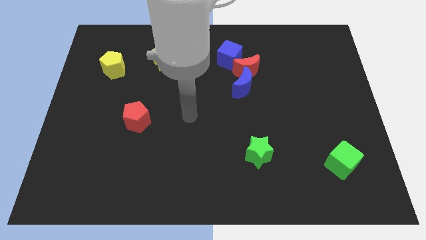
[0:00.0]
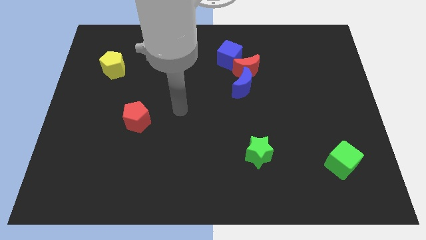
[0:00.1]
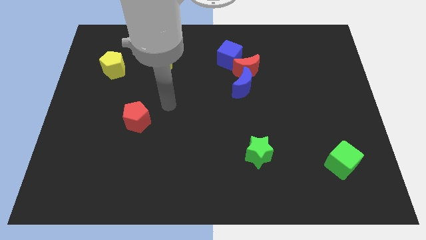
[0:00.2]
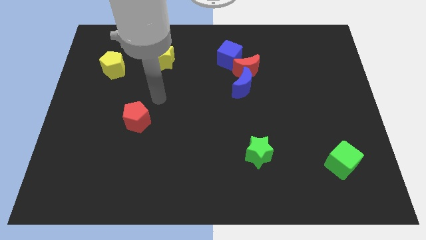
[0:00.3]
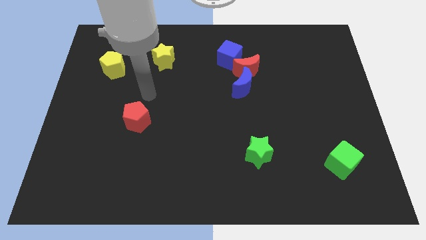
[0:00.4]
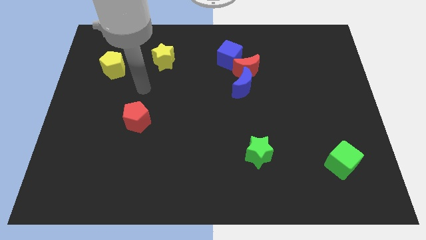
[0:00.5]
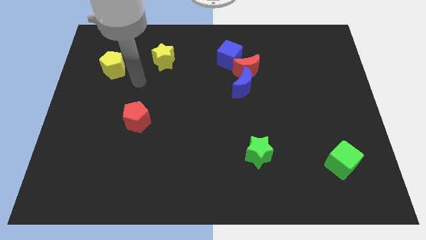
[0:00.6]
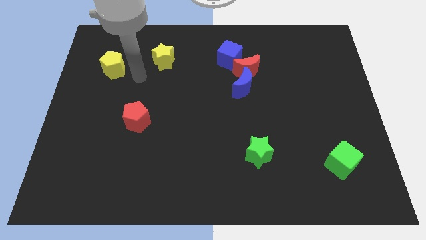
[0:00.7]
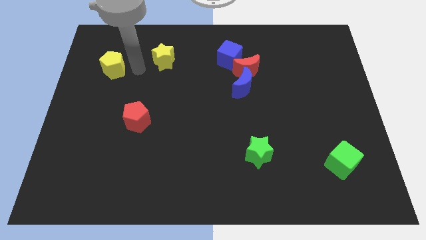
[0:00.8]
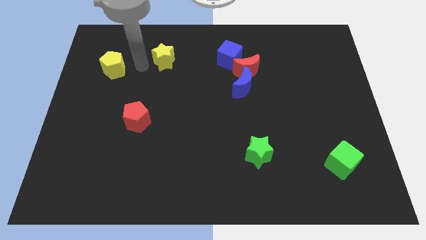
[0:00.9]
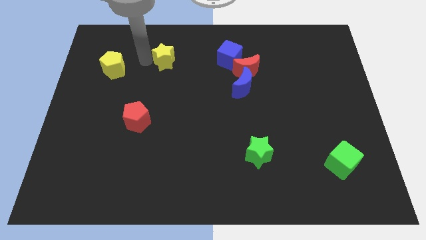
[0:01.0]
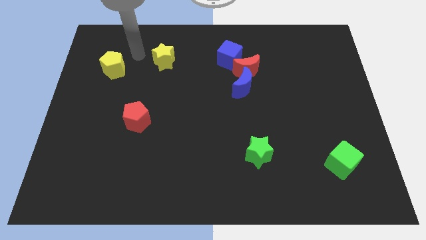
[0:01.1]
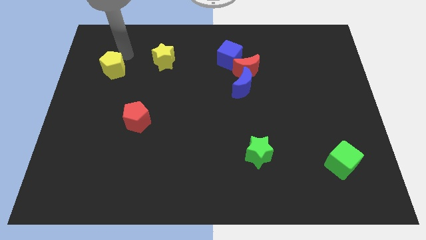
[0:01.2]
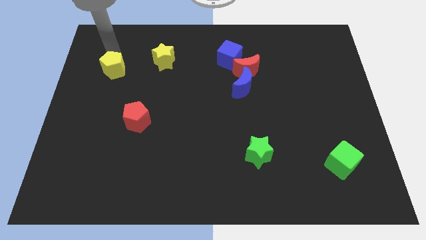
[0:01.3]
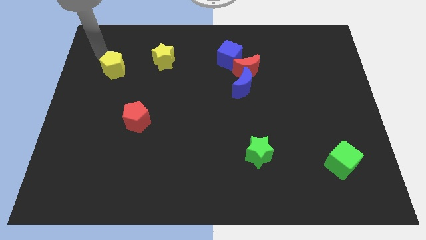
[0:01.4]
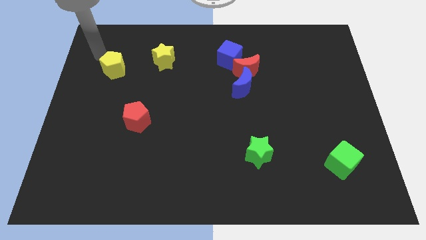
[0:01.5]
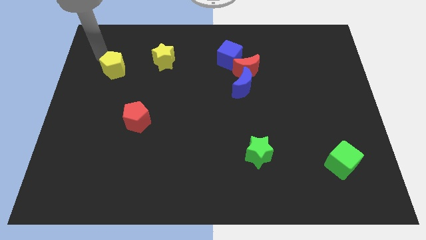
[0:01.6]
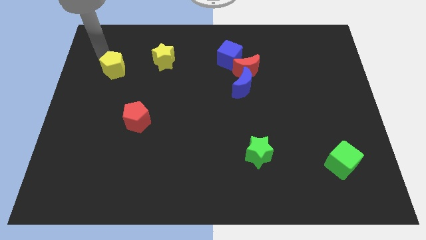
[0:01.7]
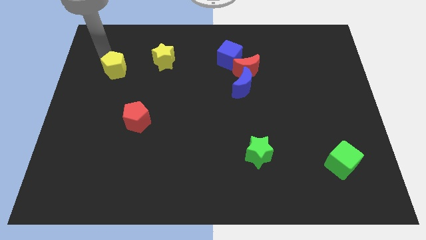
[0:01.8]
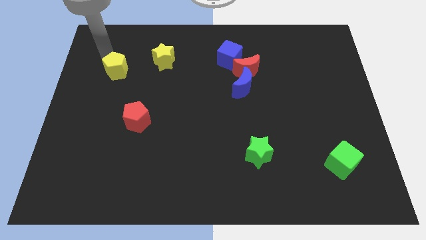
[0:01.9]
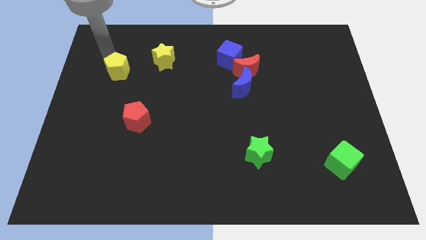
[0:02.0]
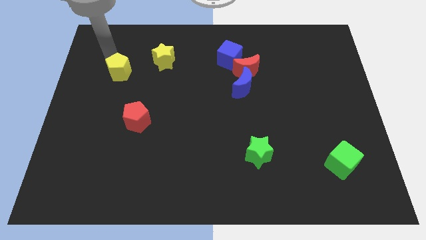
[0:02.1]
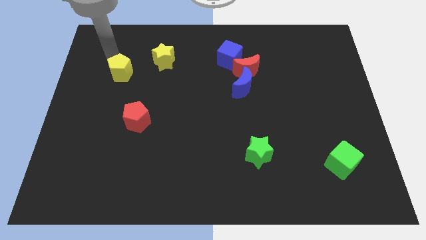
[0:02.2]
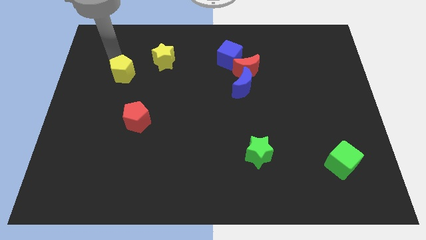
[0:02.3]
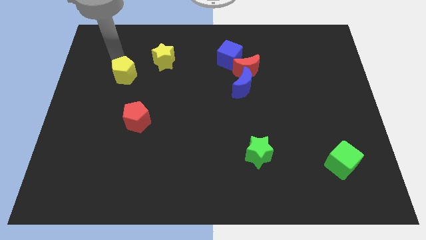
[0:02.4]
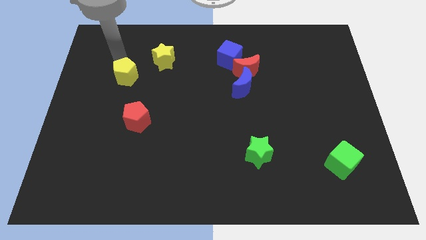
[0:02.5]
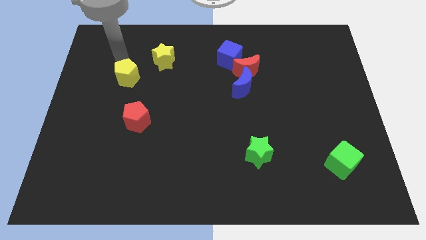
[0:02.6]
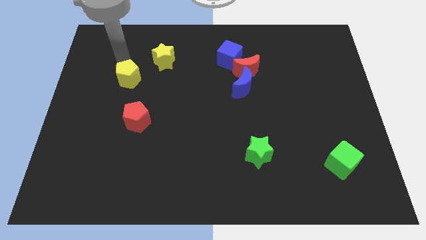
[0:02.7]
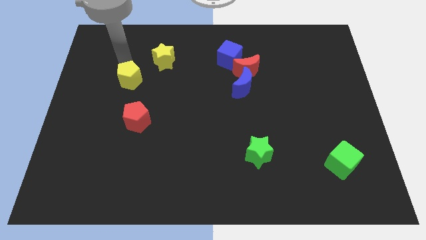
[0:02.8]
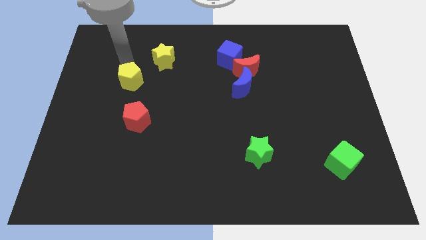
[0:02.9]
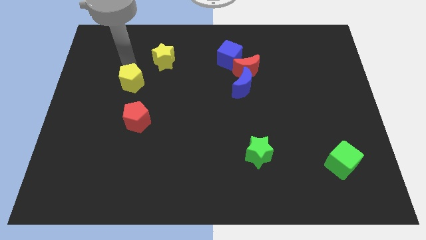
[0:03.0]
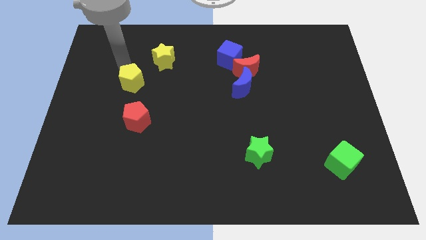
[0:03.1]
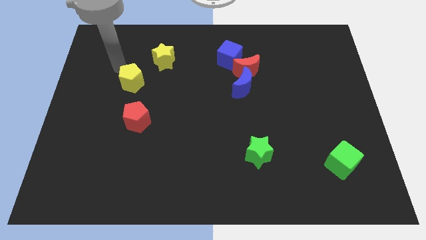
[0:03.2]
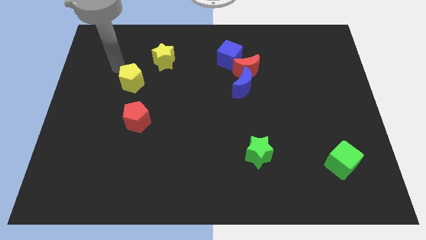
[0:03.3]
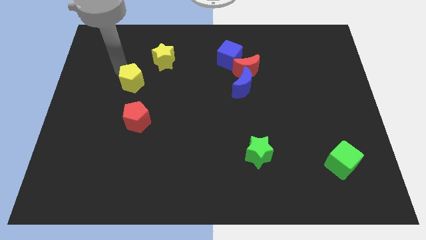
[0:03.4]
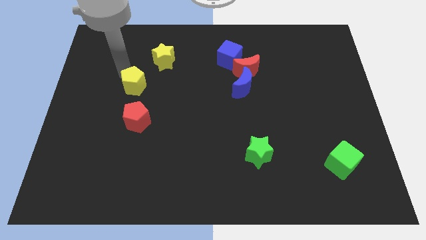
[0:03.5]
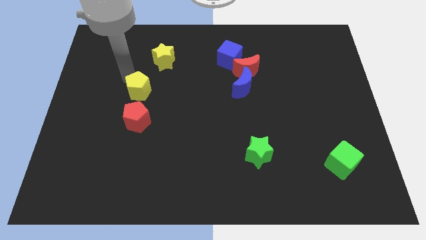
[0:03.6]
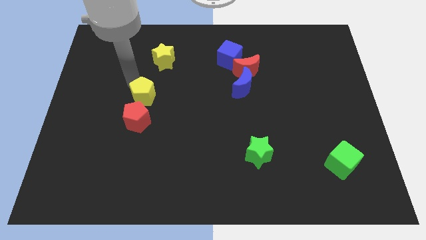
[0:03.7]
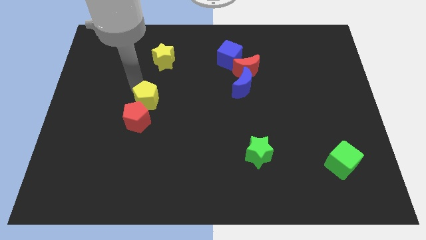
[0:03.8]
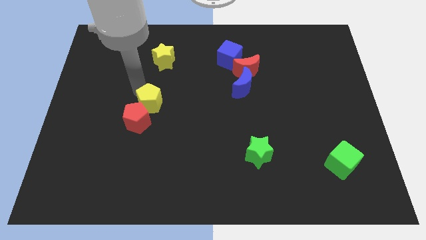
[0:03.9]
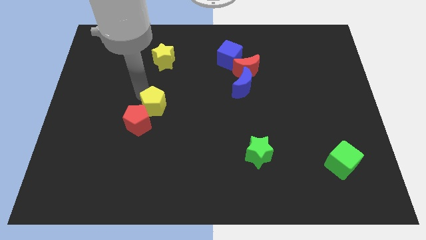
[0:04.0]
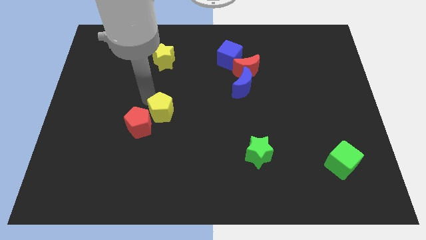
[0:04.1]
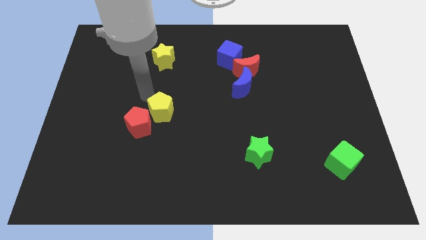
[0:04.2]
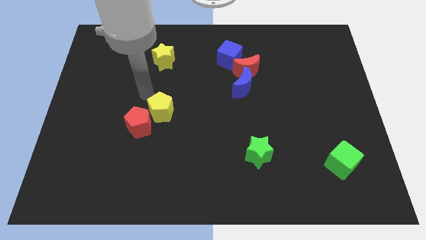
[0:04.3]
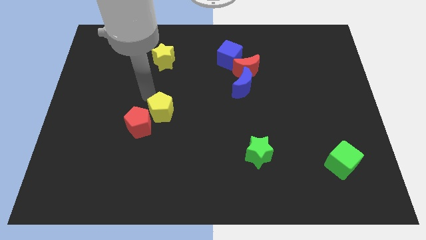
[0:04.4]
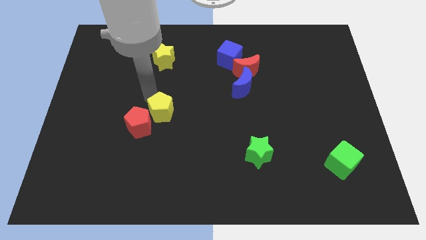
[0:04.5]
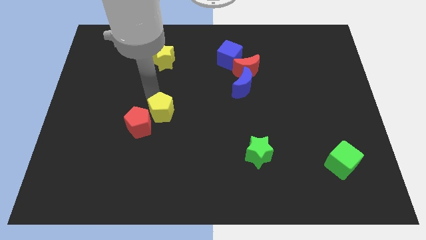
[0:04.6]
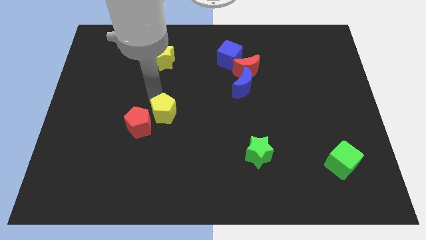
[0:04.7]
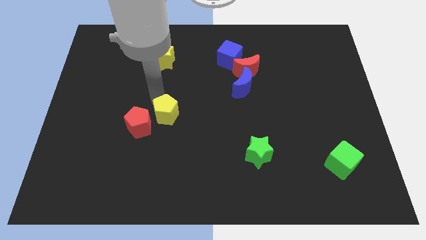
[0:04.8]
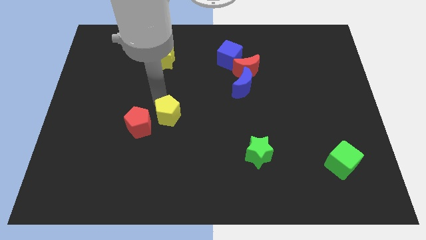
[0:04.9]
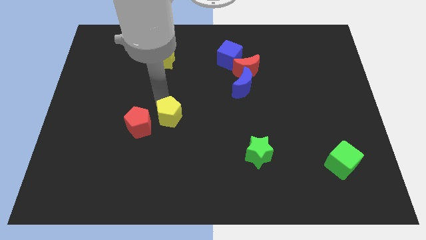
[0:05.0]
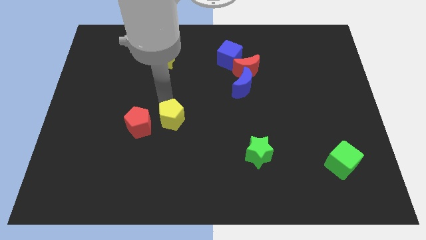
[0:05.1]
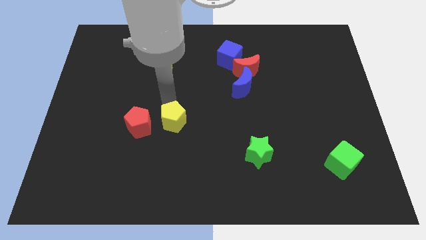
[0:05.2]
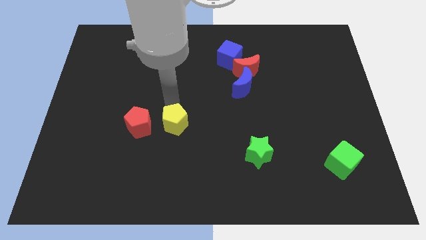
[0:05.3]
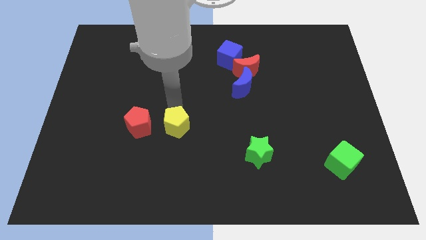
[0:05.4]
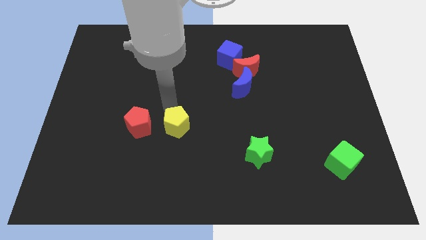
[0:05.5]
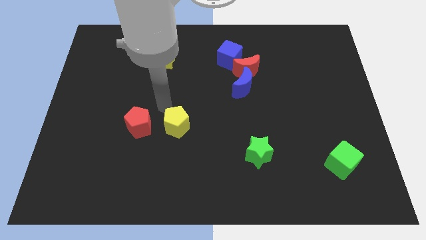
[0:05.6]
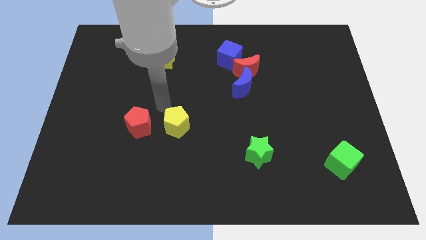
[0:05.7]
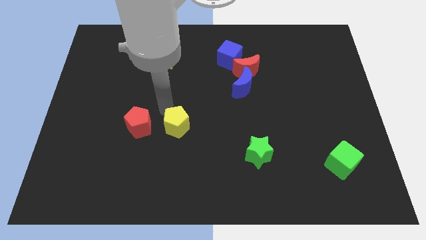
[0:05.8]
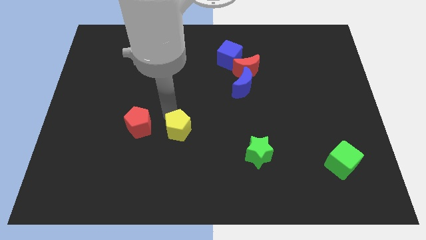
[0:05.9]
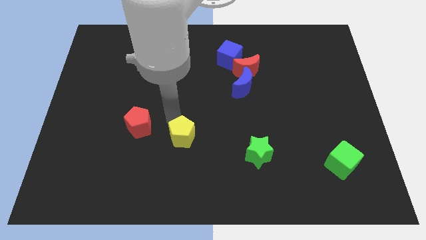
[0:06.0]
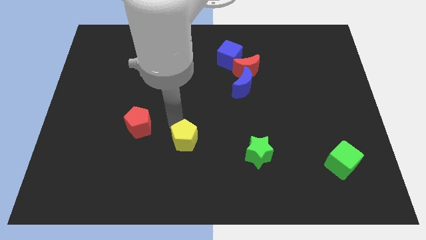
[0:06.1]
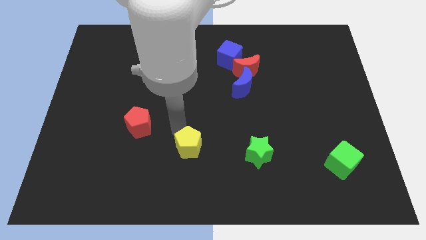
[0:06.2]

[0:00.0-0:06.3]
put the yellow pentagon to the left side of the green star

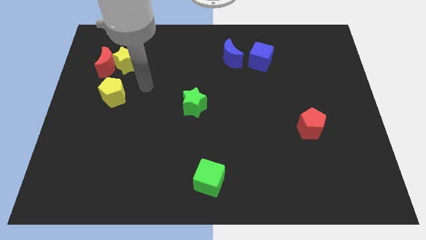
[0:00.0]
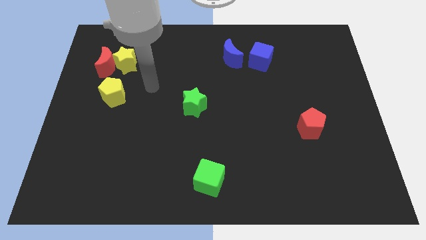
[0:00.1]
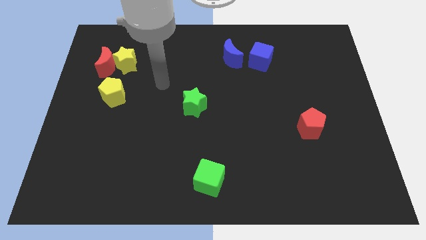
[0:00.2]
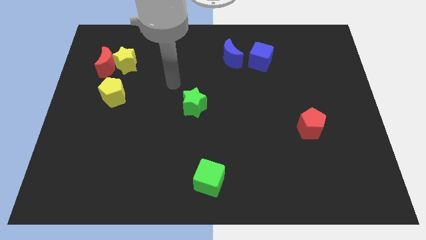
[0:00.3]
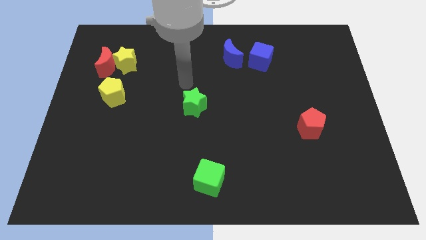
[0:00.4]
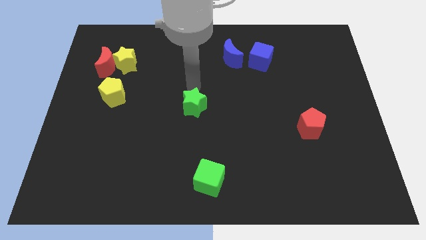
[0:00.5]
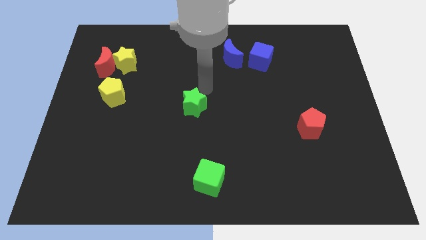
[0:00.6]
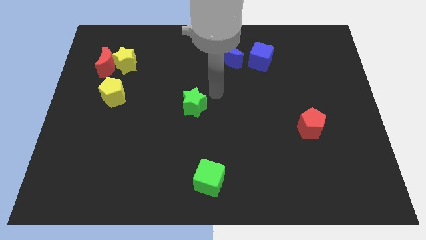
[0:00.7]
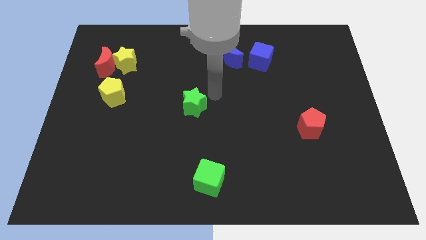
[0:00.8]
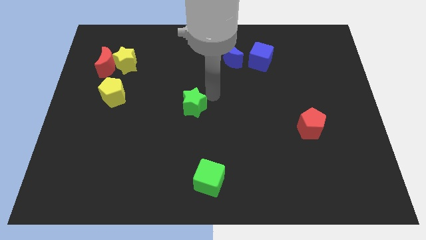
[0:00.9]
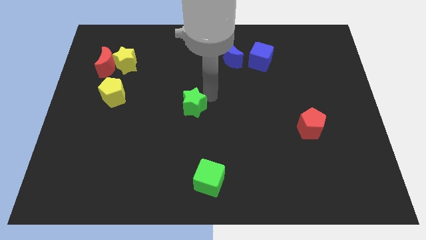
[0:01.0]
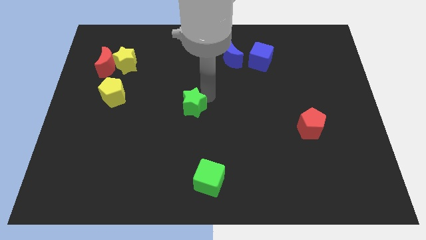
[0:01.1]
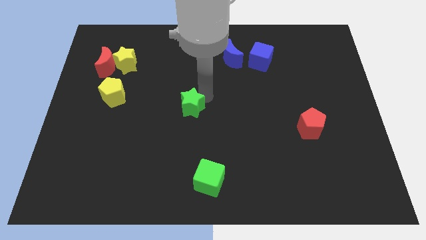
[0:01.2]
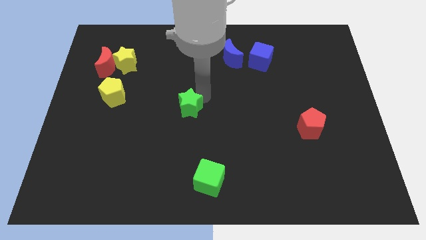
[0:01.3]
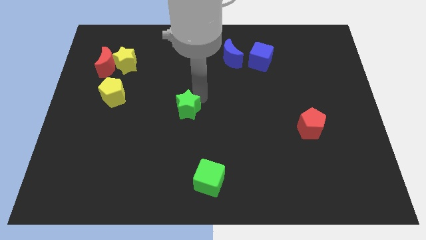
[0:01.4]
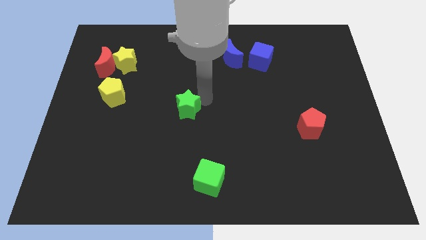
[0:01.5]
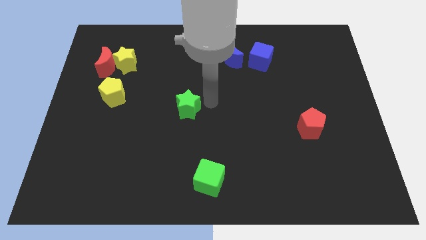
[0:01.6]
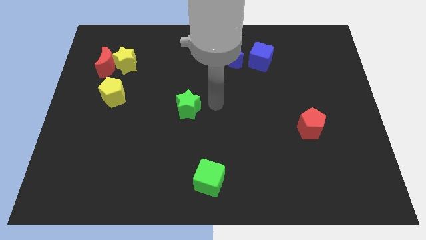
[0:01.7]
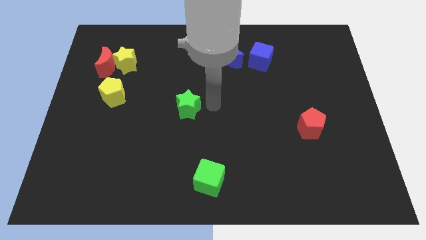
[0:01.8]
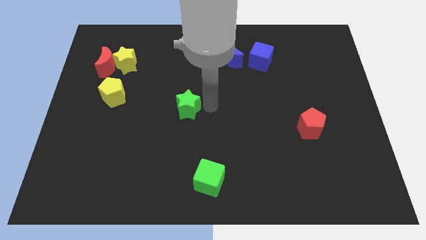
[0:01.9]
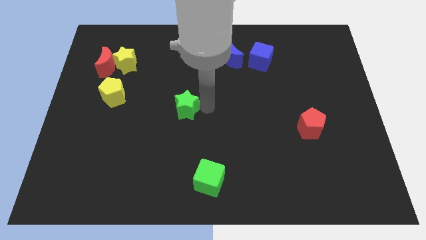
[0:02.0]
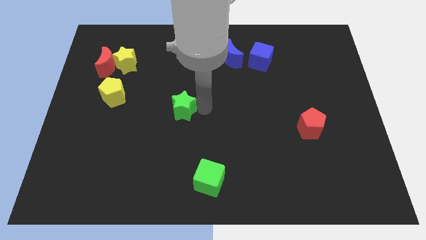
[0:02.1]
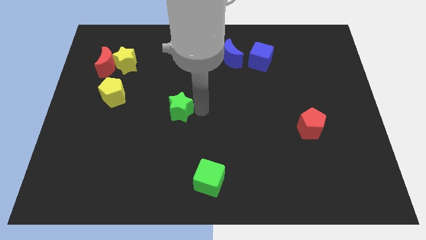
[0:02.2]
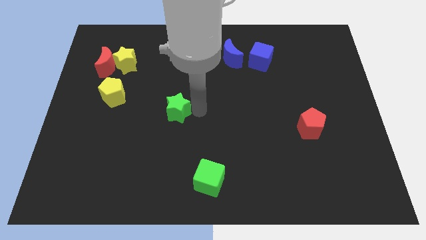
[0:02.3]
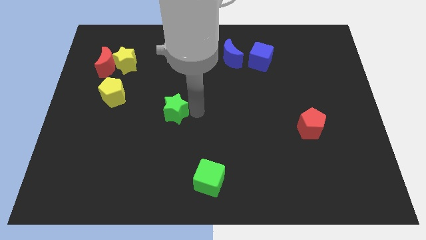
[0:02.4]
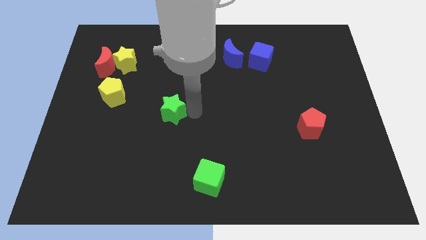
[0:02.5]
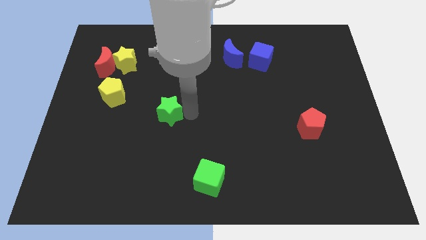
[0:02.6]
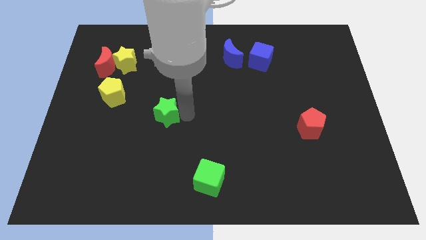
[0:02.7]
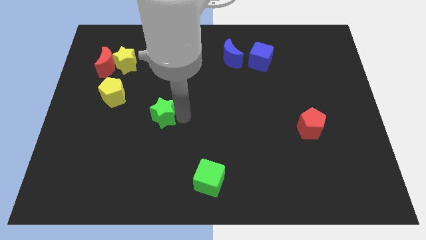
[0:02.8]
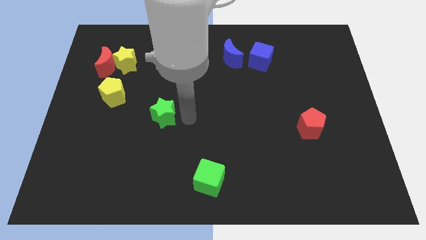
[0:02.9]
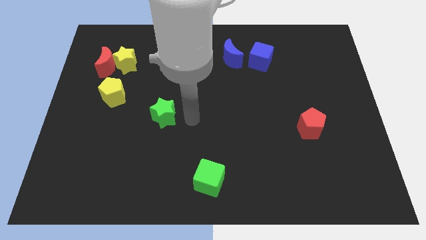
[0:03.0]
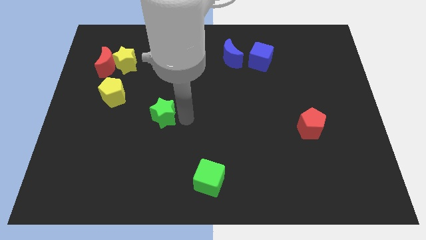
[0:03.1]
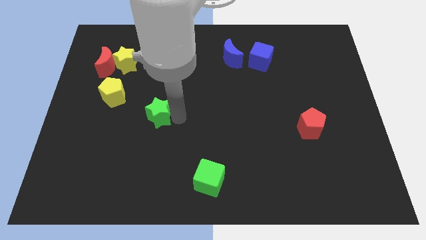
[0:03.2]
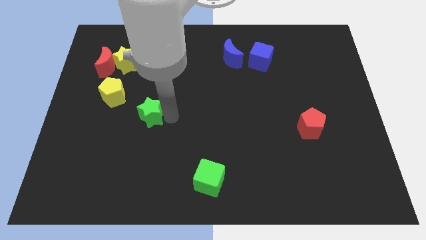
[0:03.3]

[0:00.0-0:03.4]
move the green star diagonally down and to the right of the yellow pentagon
